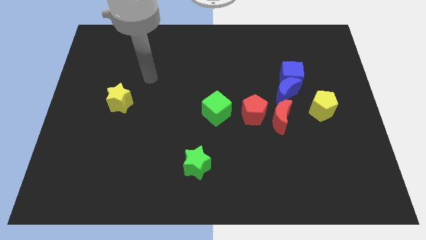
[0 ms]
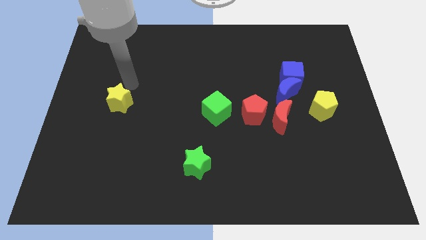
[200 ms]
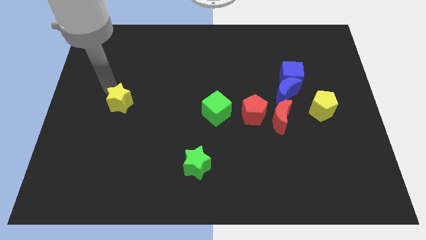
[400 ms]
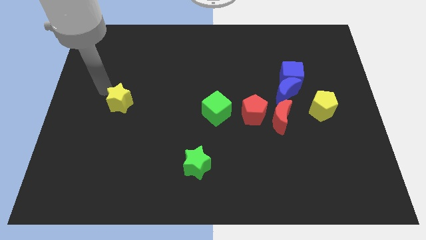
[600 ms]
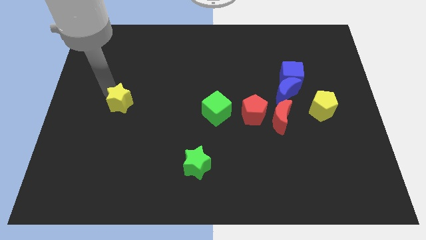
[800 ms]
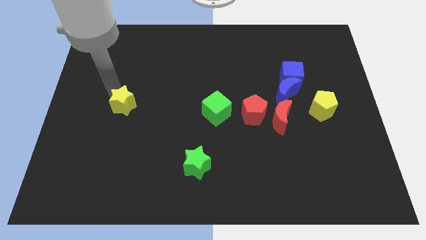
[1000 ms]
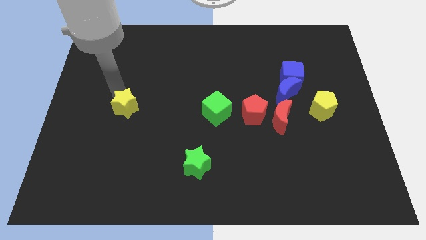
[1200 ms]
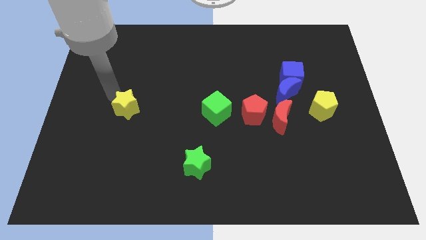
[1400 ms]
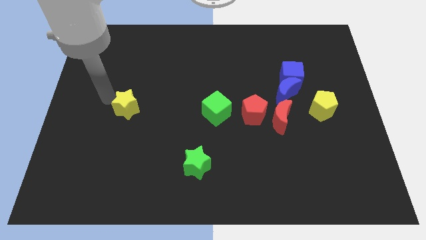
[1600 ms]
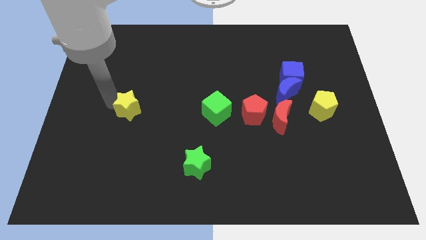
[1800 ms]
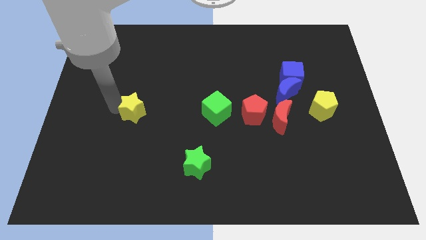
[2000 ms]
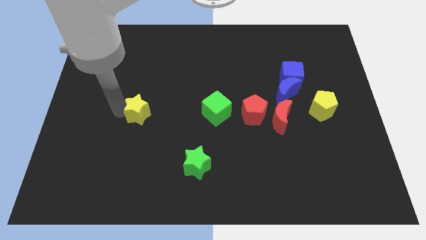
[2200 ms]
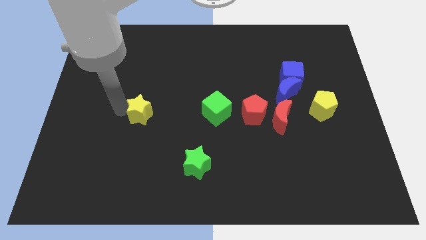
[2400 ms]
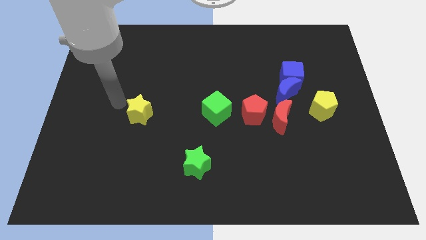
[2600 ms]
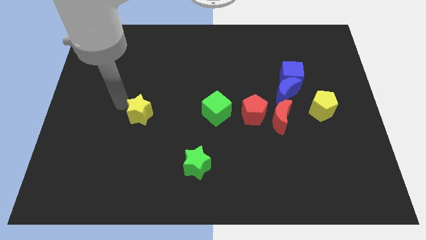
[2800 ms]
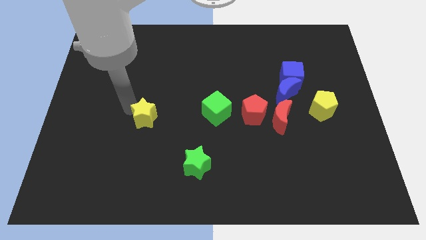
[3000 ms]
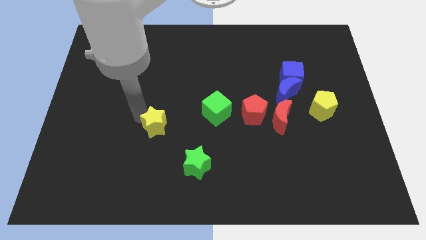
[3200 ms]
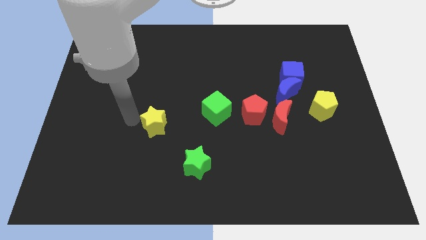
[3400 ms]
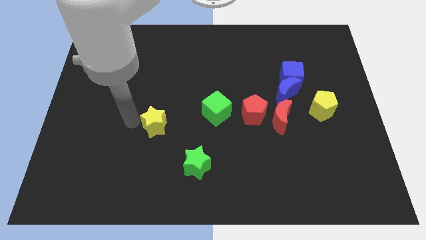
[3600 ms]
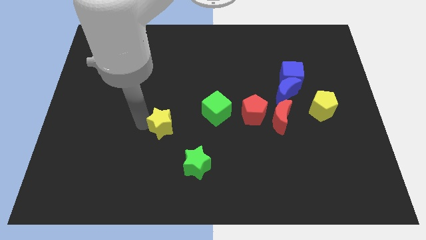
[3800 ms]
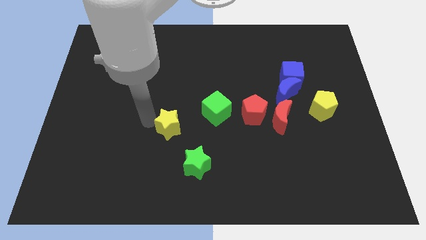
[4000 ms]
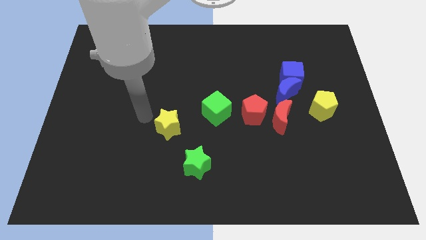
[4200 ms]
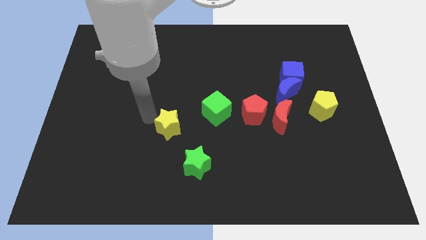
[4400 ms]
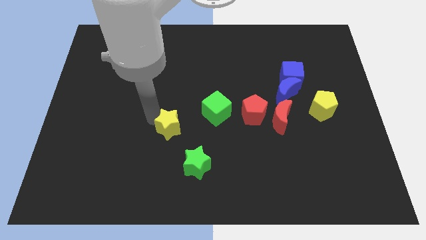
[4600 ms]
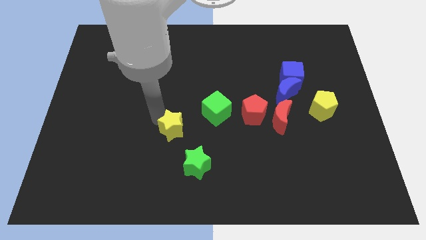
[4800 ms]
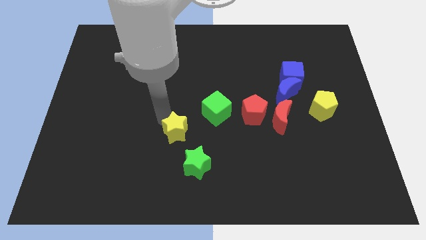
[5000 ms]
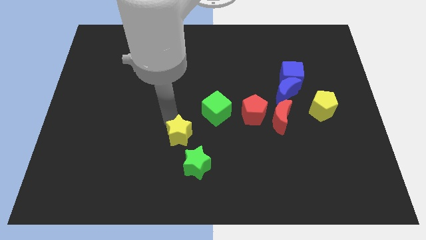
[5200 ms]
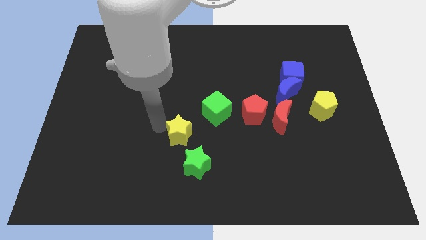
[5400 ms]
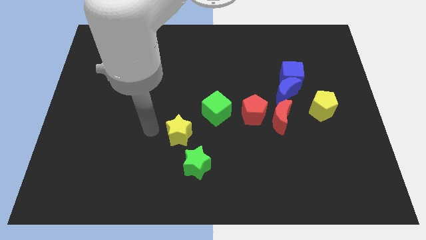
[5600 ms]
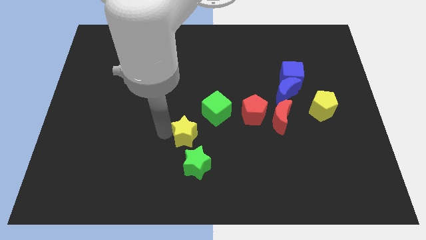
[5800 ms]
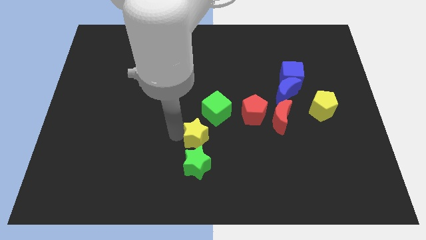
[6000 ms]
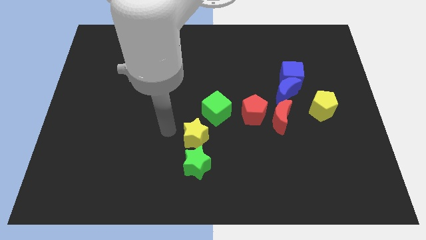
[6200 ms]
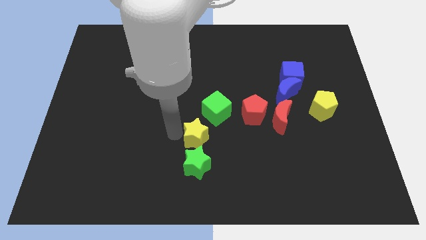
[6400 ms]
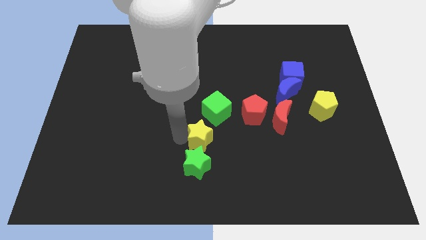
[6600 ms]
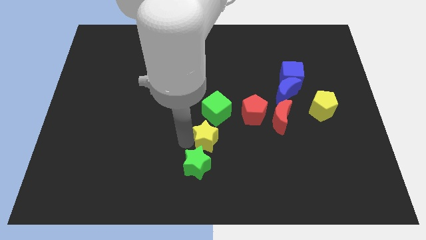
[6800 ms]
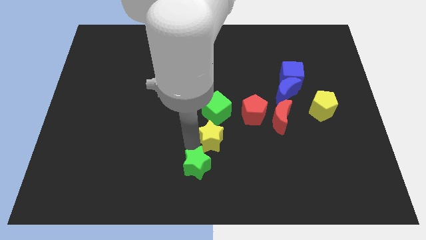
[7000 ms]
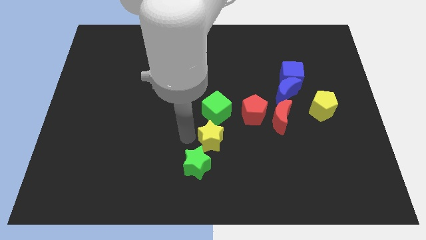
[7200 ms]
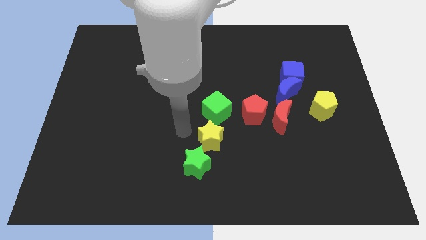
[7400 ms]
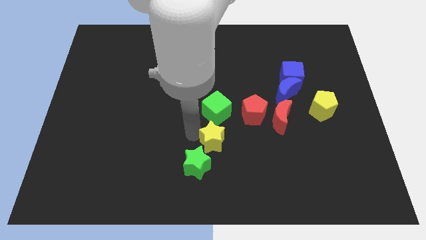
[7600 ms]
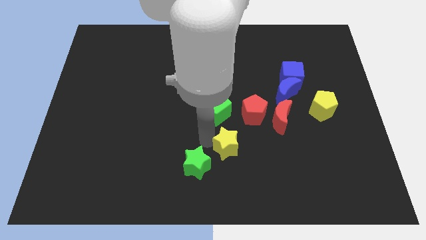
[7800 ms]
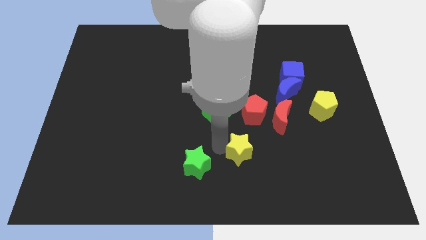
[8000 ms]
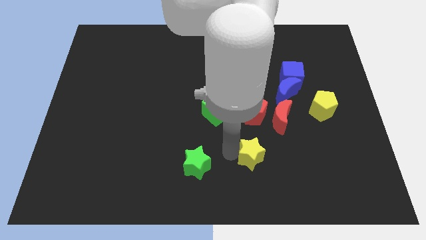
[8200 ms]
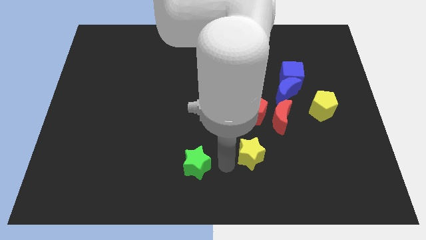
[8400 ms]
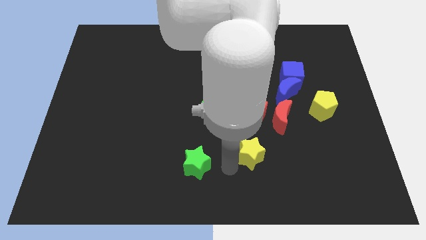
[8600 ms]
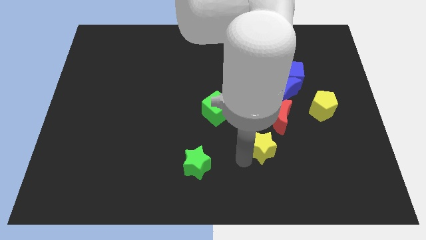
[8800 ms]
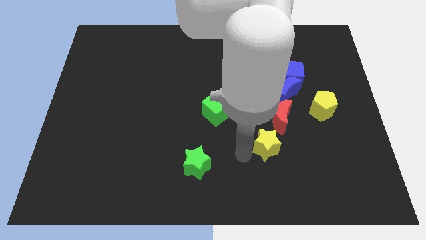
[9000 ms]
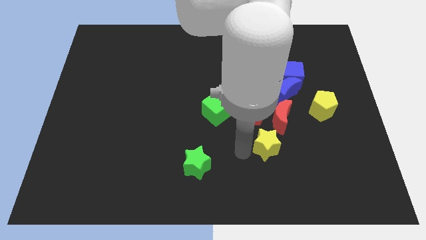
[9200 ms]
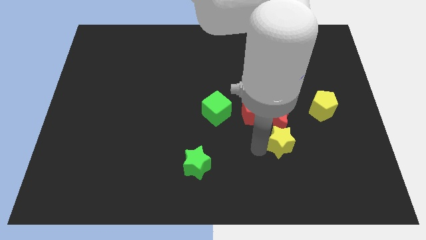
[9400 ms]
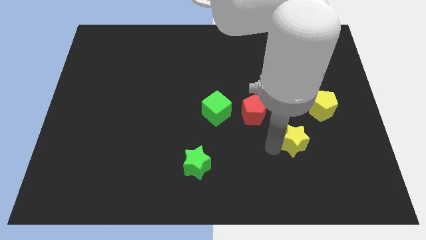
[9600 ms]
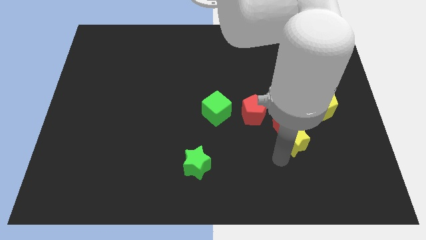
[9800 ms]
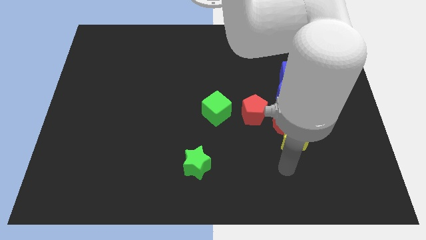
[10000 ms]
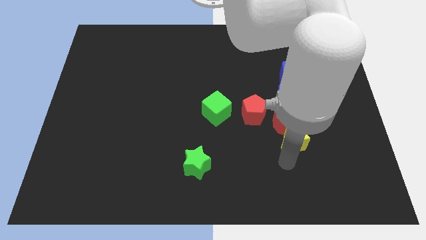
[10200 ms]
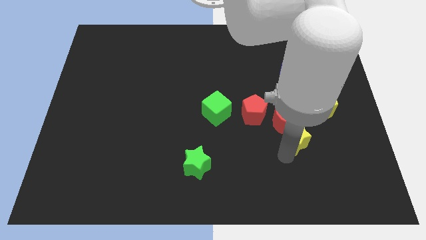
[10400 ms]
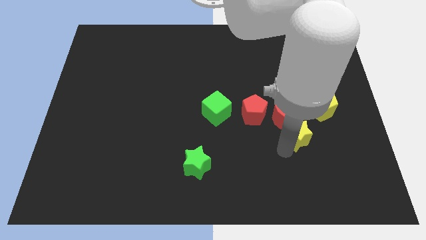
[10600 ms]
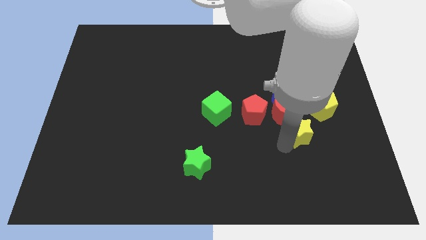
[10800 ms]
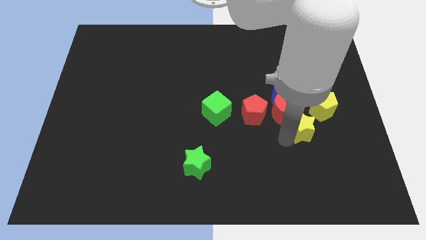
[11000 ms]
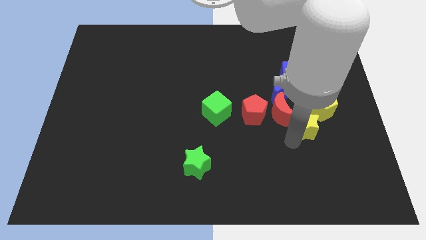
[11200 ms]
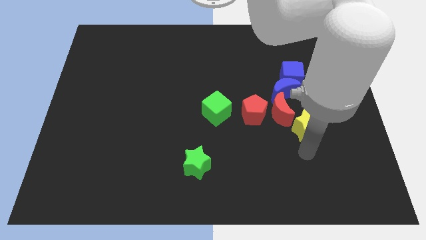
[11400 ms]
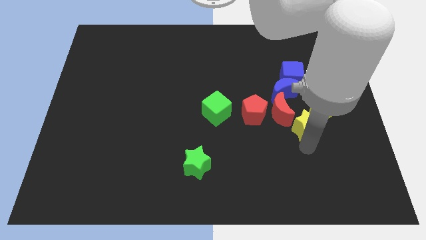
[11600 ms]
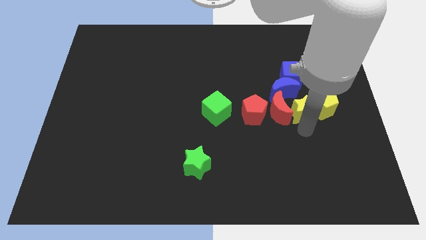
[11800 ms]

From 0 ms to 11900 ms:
slide the yellow star to the top right side of the red moon

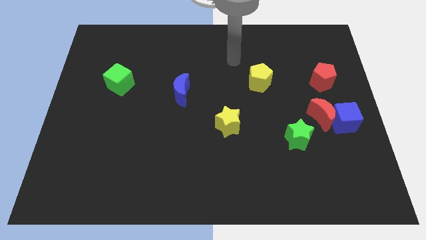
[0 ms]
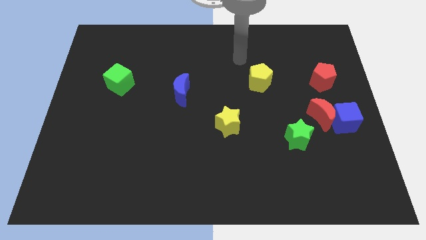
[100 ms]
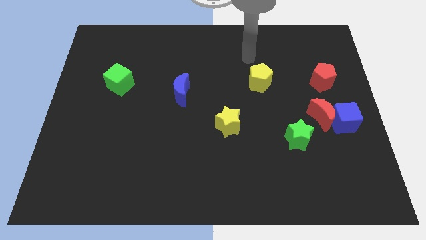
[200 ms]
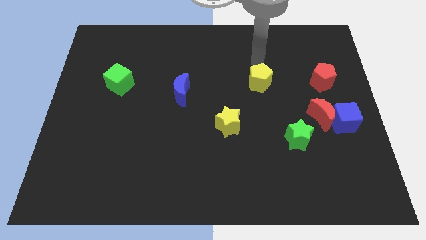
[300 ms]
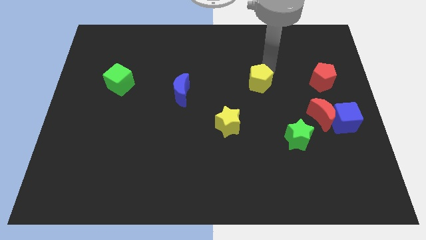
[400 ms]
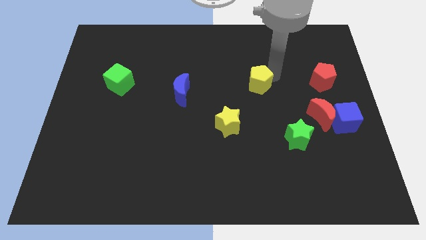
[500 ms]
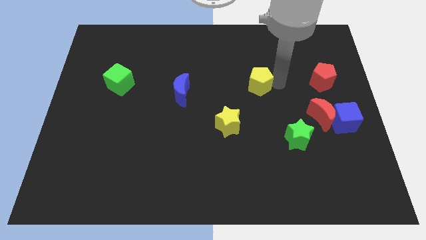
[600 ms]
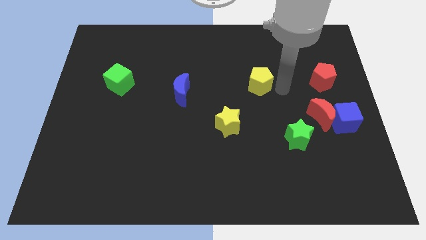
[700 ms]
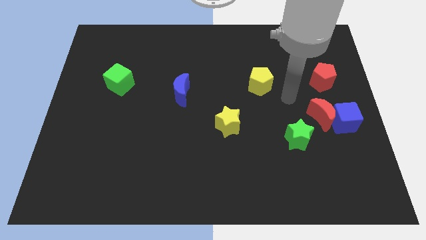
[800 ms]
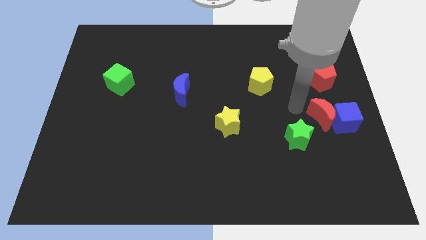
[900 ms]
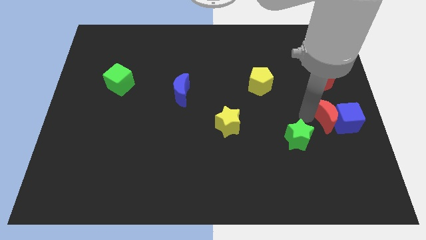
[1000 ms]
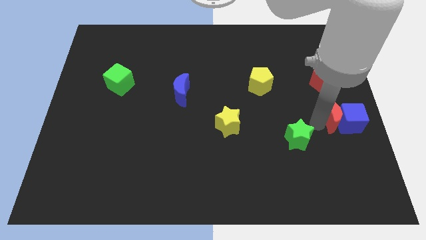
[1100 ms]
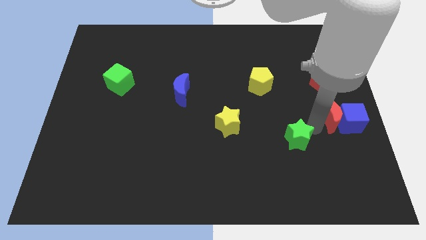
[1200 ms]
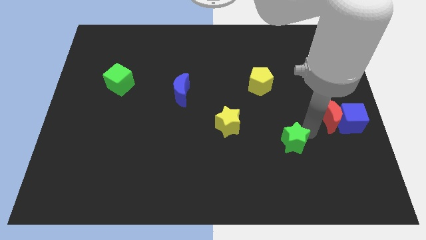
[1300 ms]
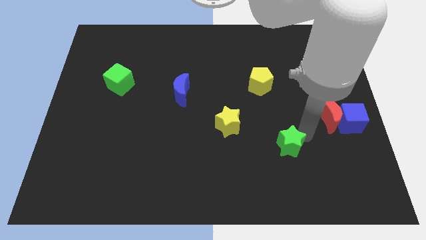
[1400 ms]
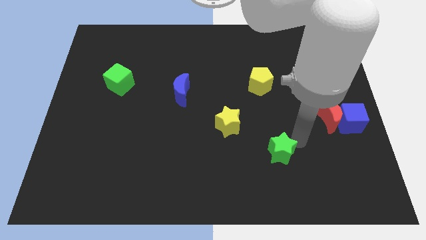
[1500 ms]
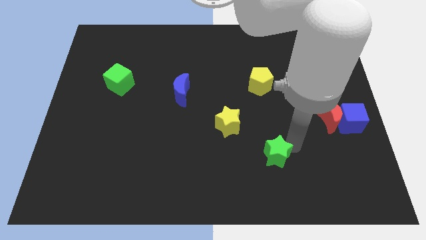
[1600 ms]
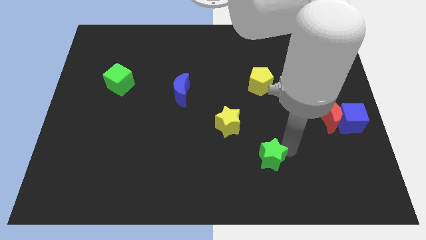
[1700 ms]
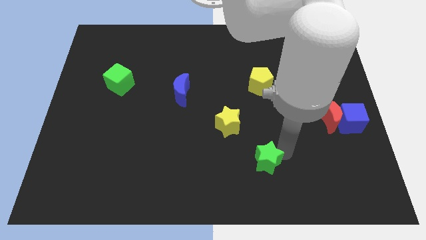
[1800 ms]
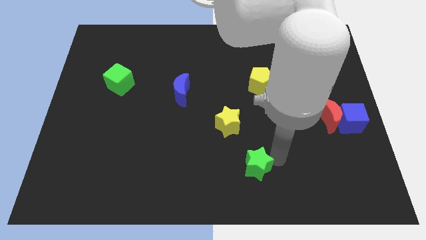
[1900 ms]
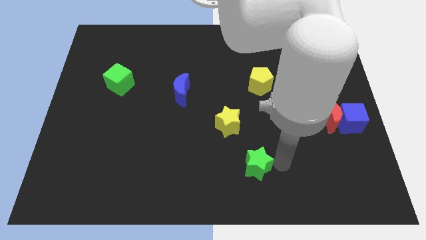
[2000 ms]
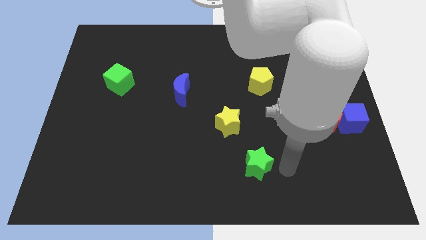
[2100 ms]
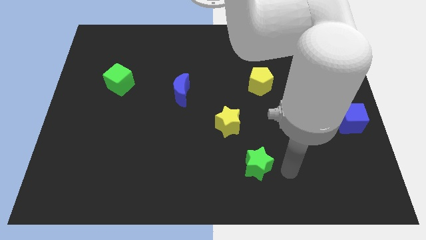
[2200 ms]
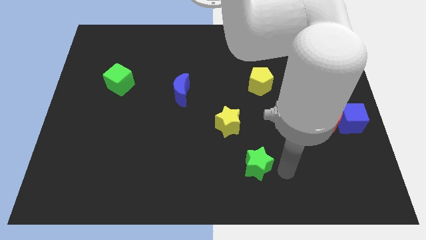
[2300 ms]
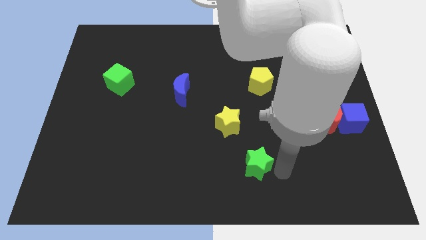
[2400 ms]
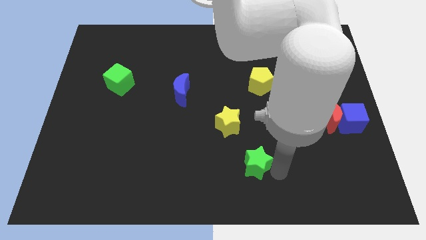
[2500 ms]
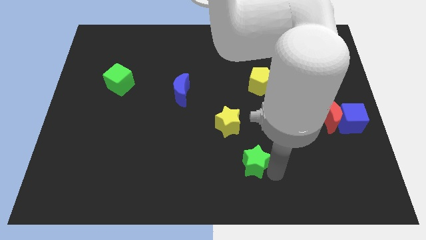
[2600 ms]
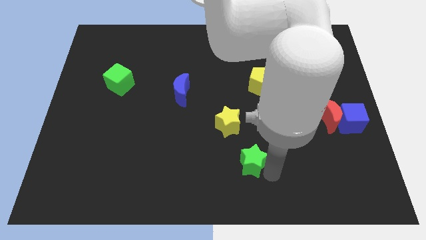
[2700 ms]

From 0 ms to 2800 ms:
move the green star to the bottom side of the yellow star
